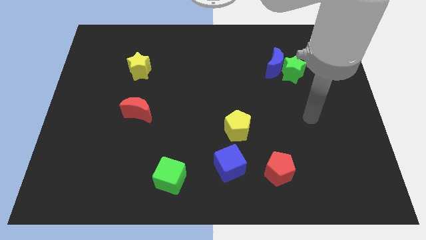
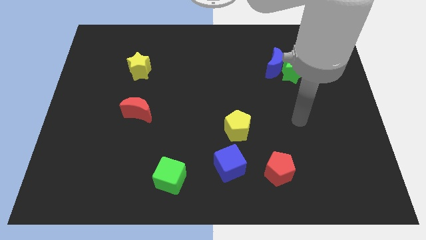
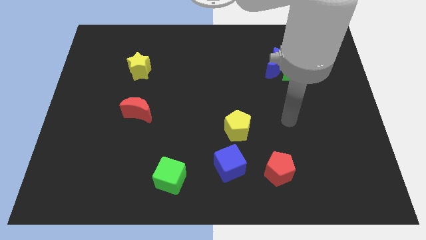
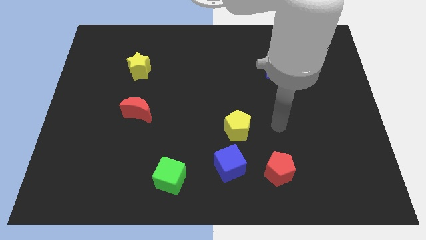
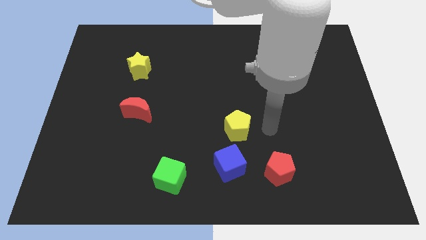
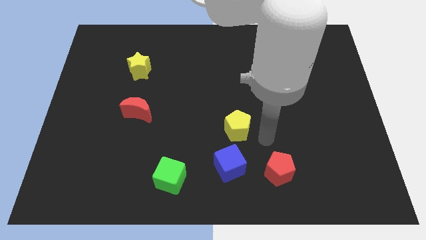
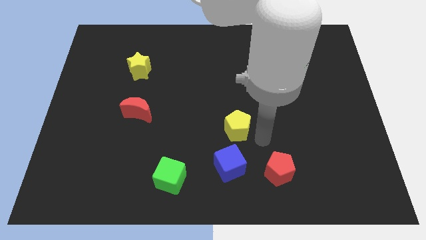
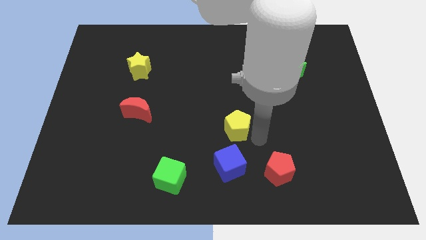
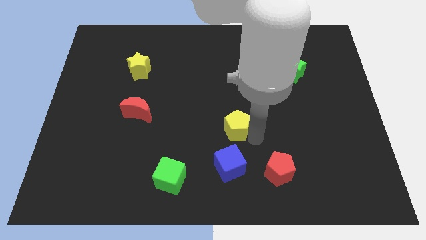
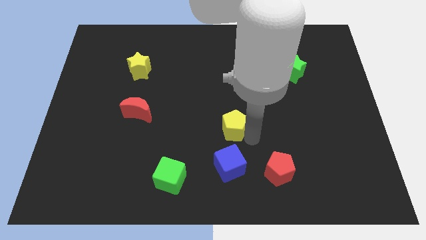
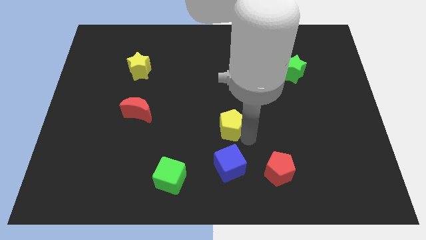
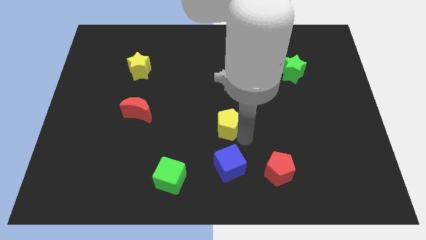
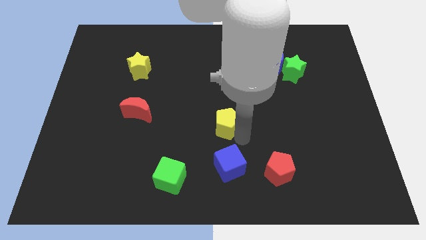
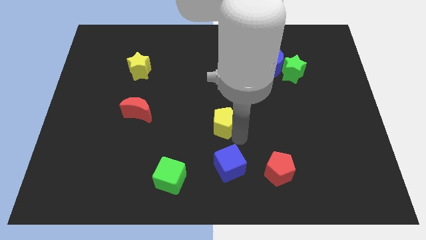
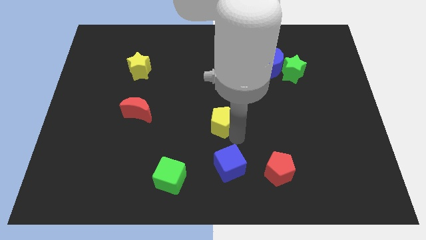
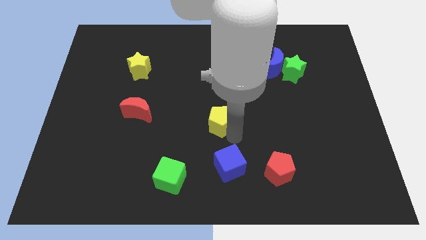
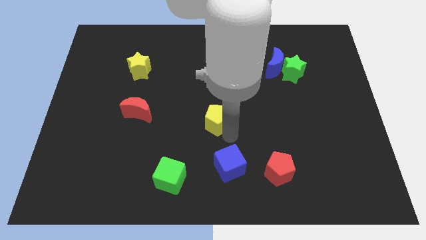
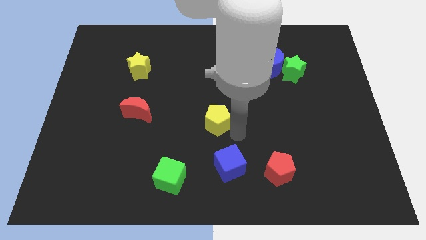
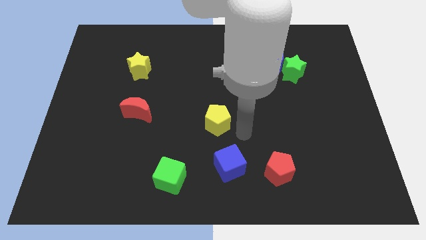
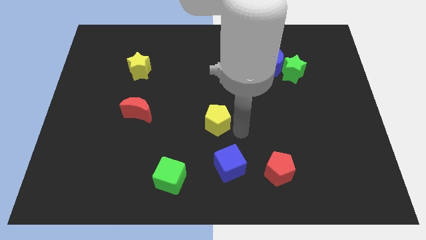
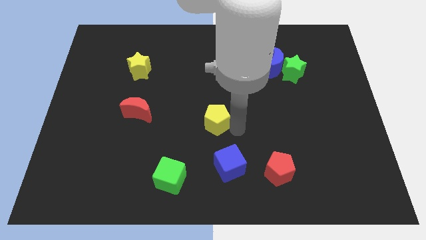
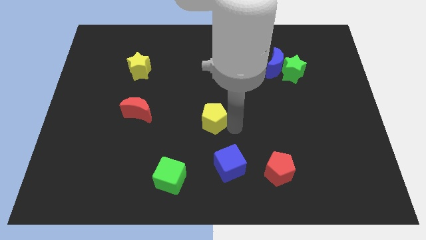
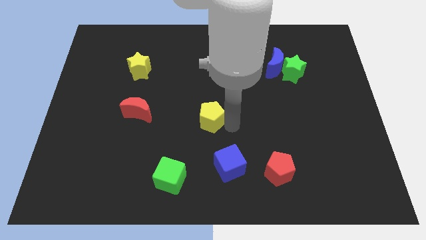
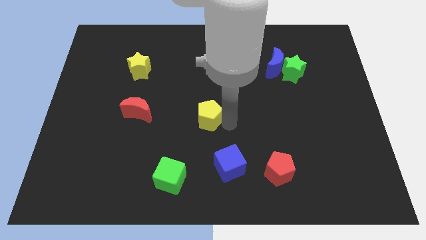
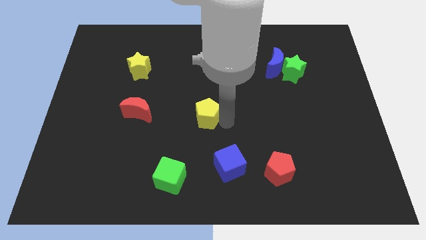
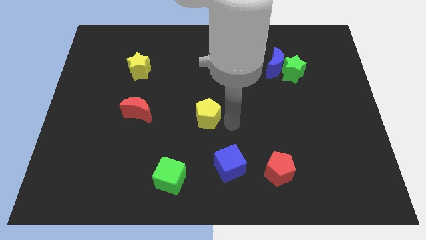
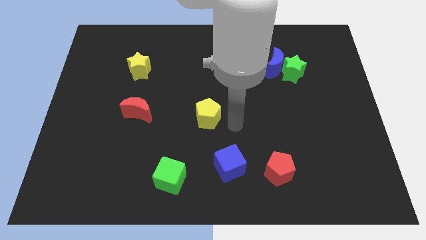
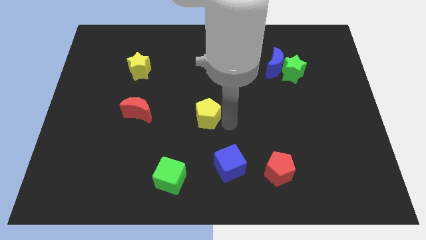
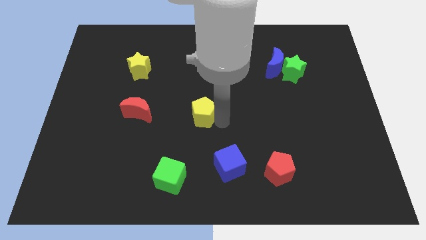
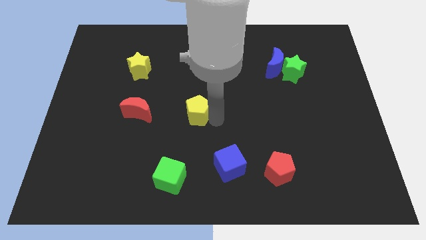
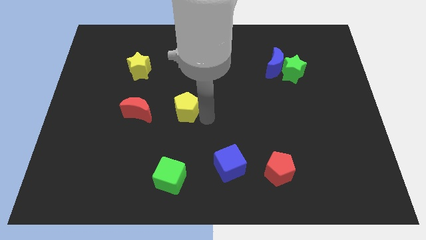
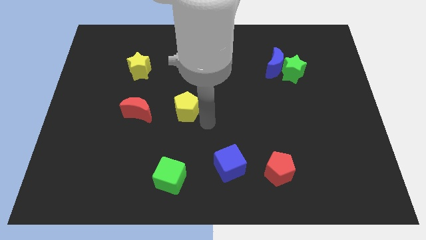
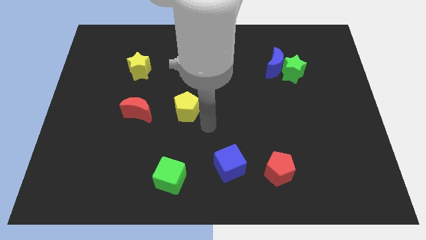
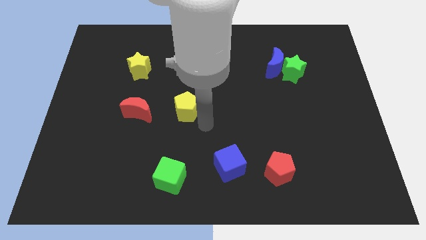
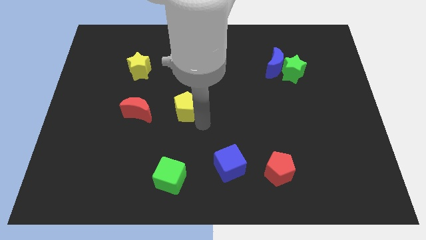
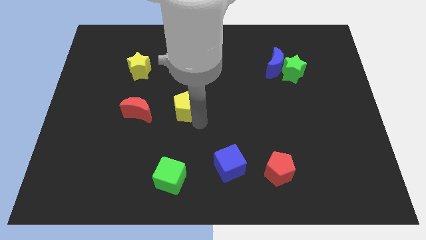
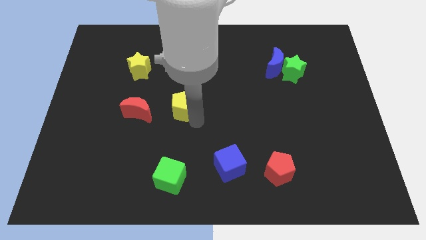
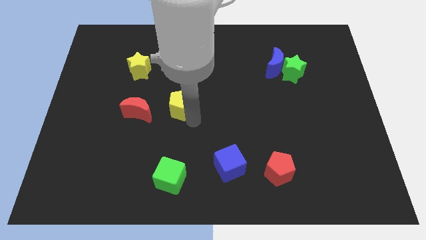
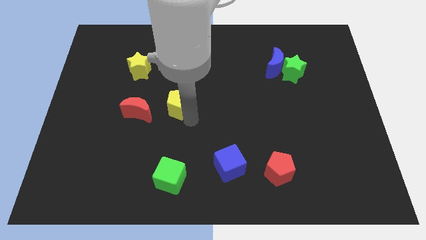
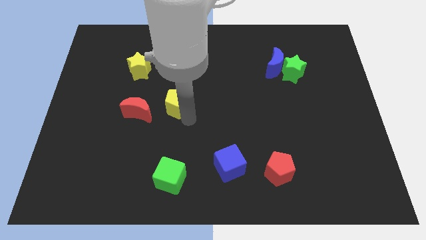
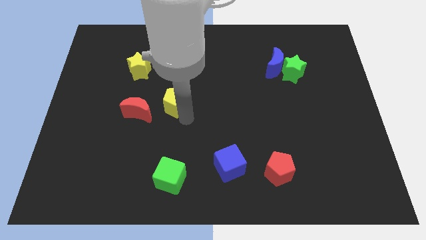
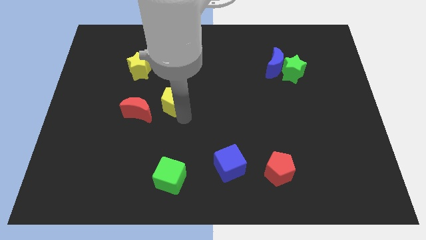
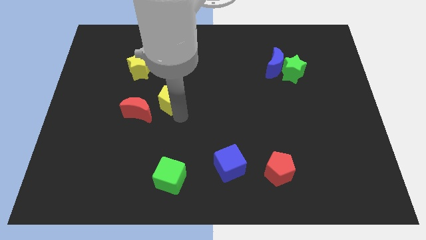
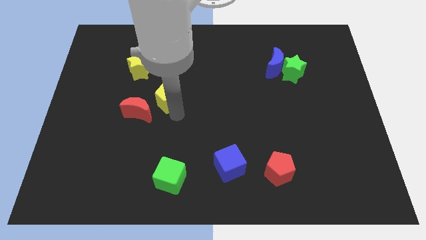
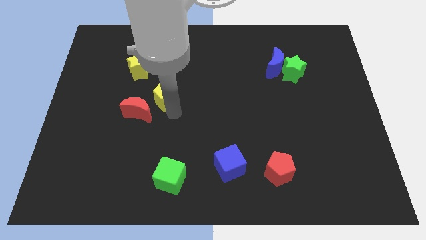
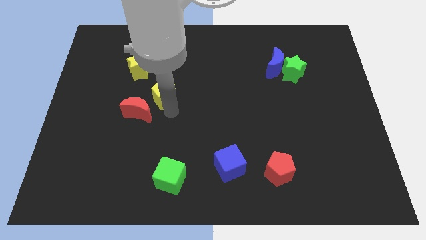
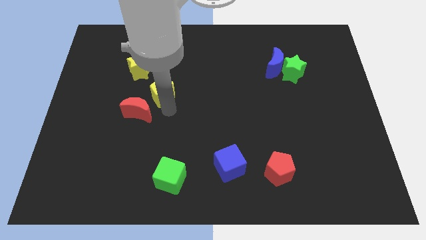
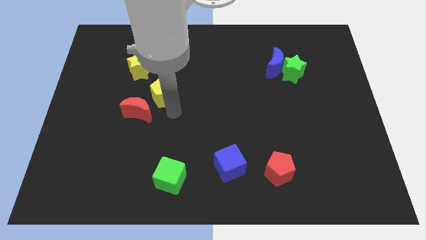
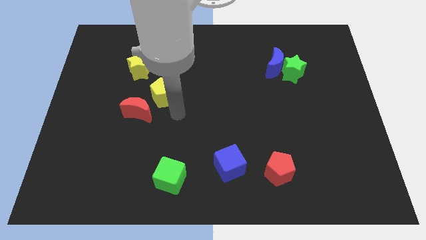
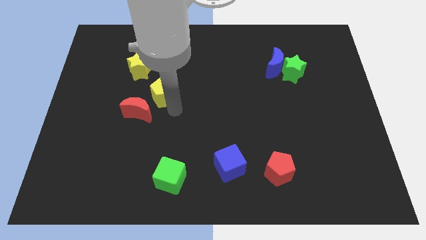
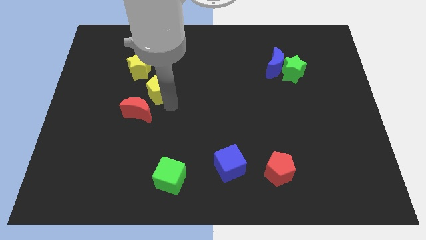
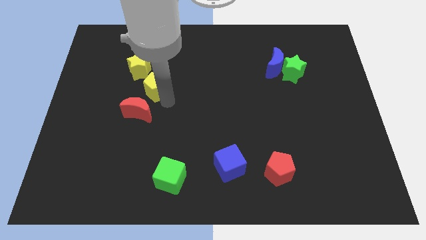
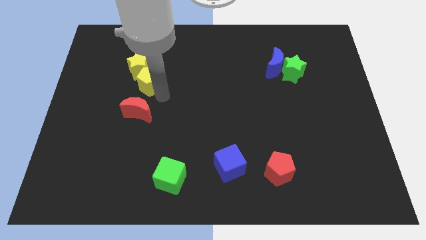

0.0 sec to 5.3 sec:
slide the yellow pentagon next to the yellow star

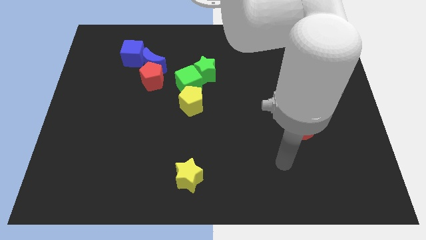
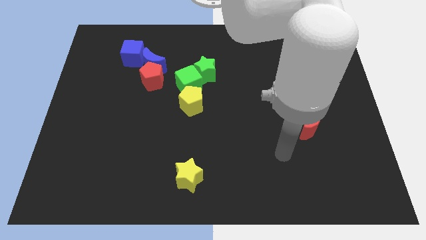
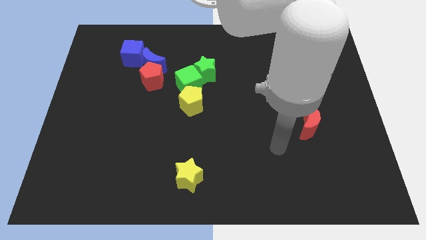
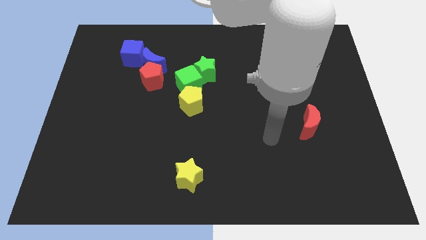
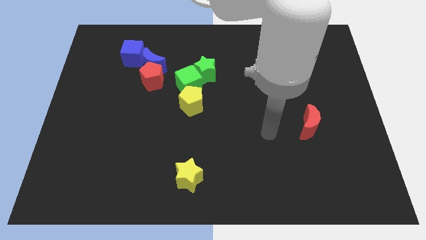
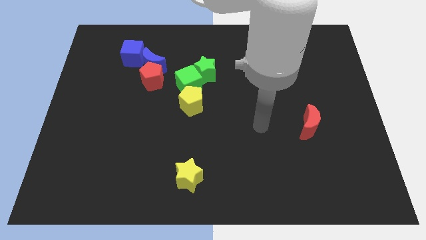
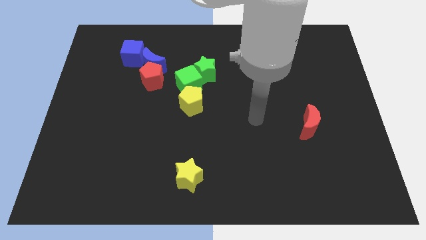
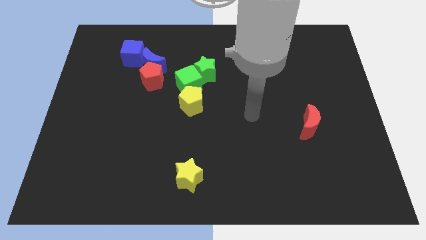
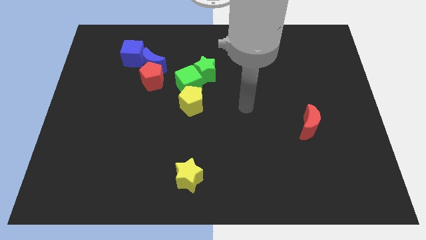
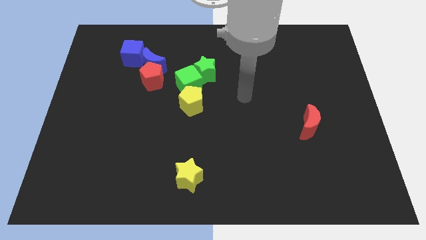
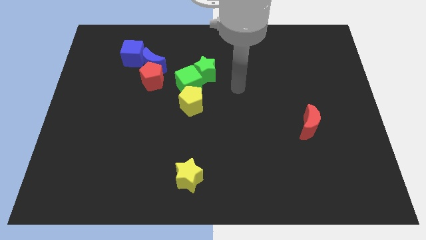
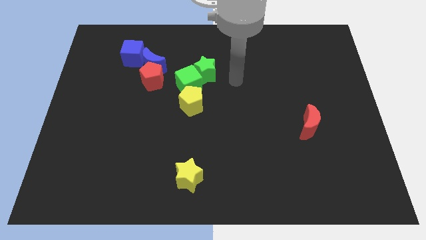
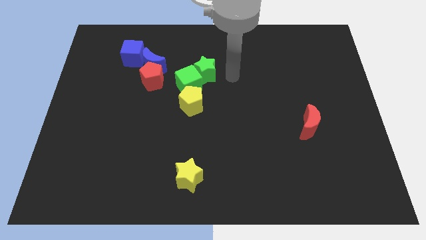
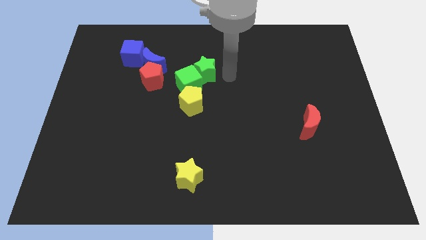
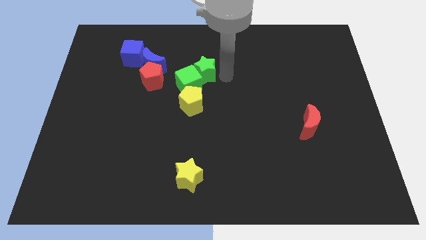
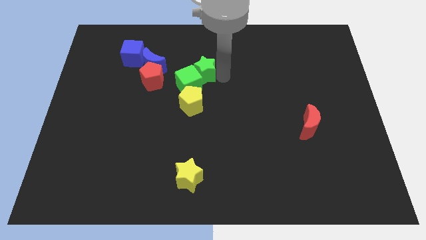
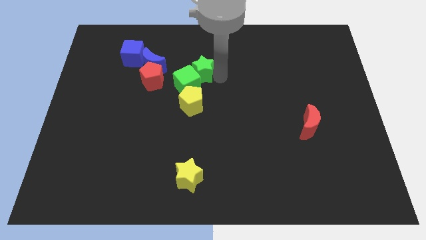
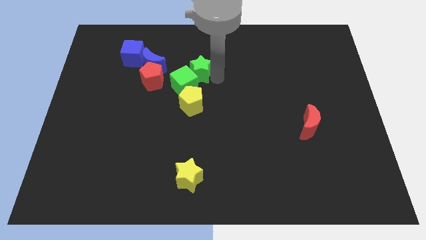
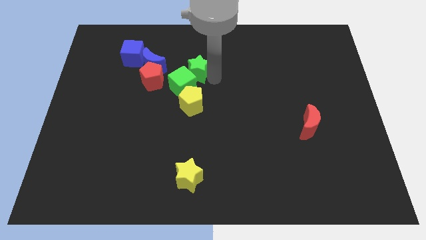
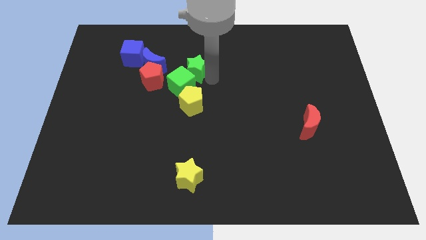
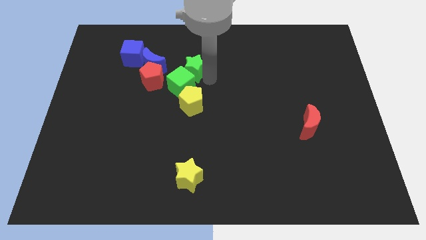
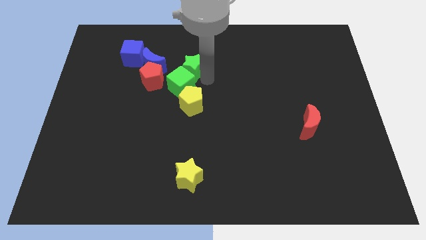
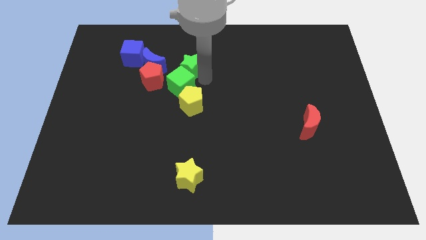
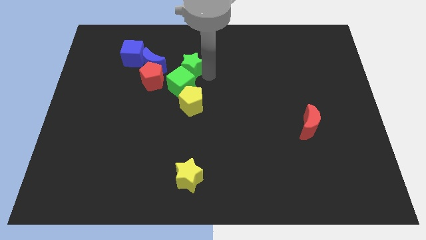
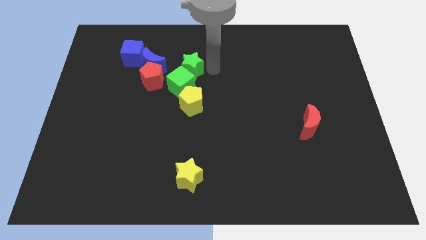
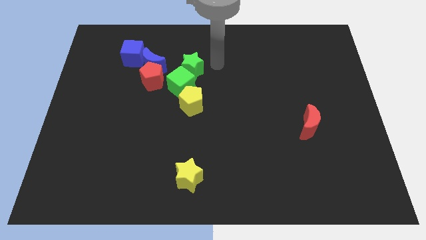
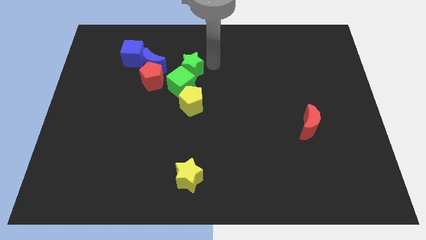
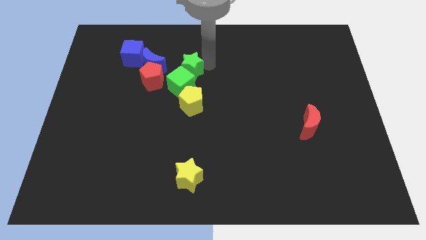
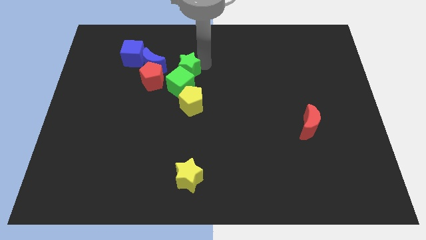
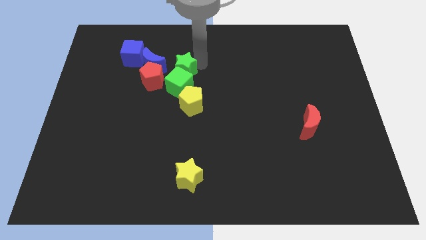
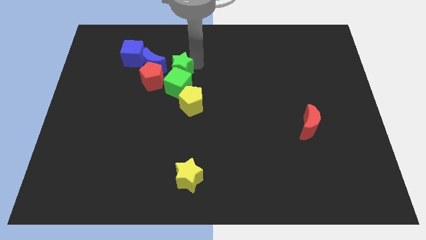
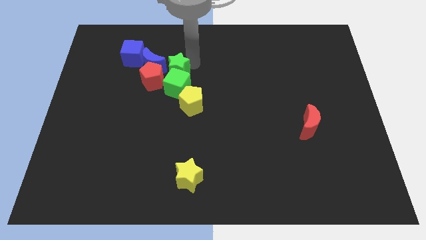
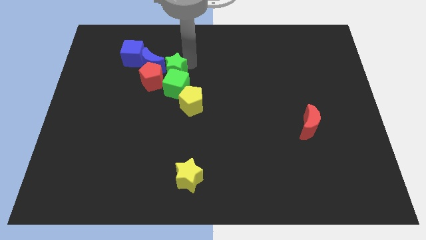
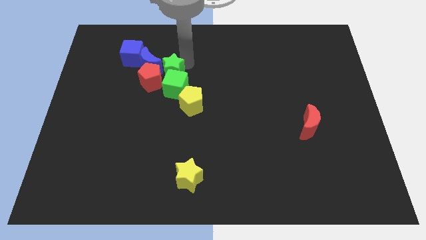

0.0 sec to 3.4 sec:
push the green star to the red pentagon
